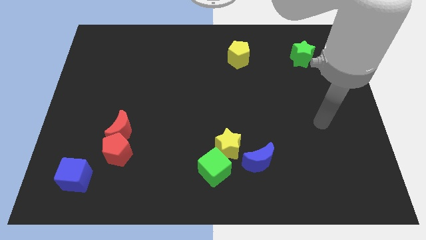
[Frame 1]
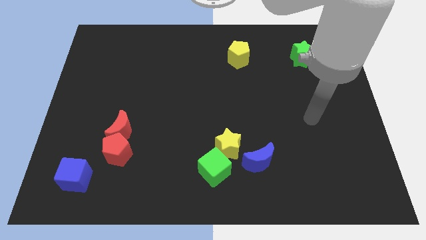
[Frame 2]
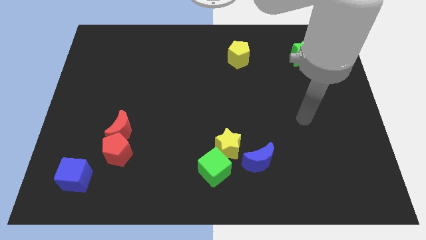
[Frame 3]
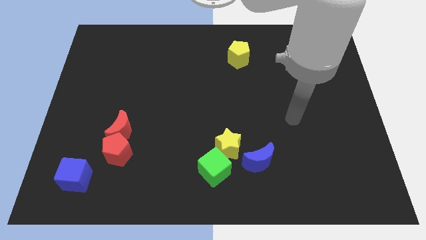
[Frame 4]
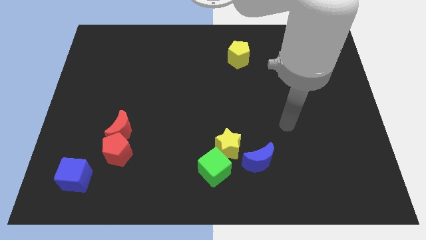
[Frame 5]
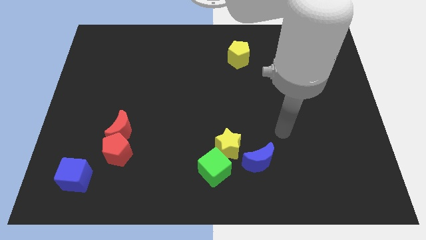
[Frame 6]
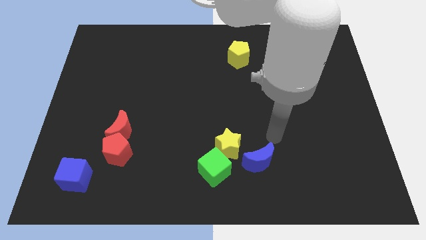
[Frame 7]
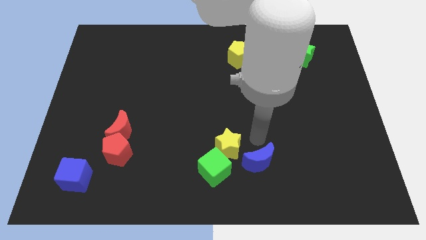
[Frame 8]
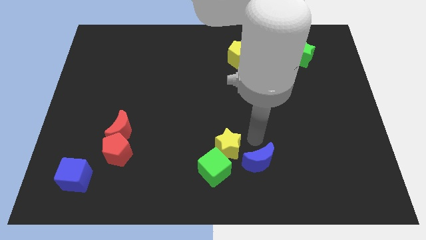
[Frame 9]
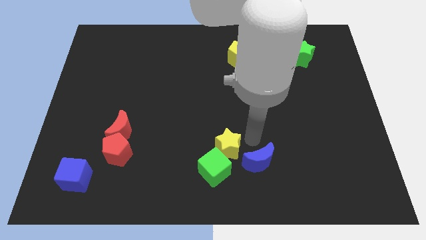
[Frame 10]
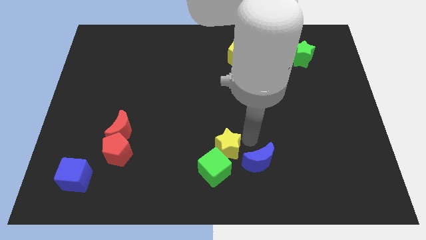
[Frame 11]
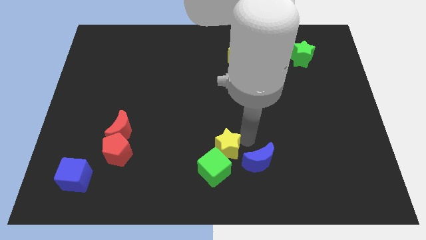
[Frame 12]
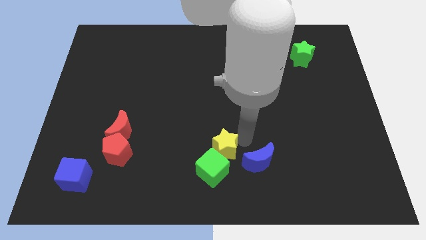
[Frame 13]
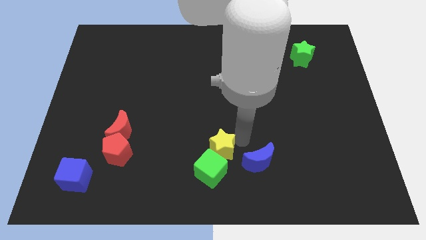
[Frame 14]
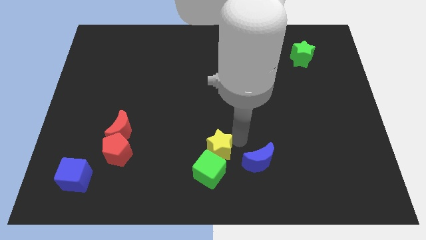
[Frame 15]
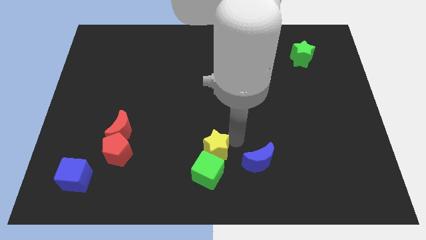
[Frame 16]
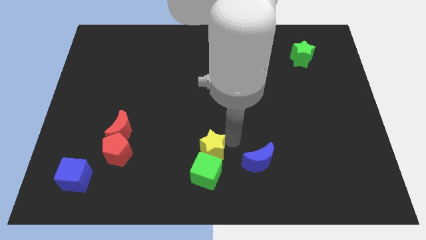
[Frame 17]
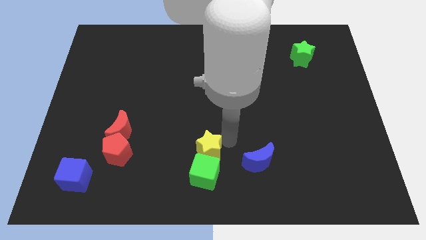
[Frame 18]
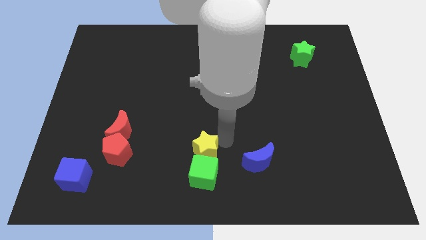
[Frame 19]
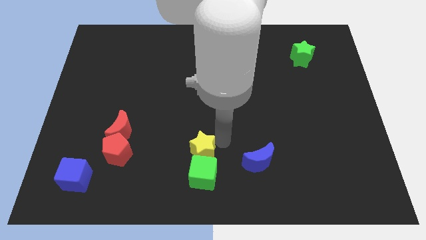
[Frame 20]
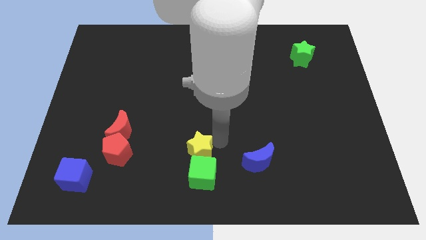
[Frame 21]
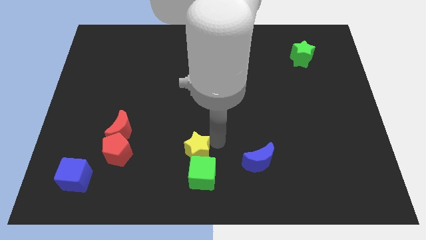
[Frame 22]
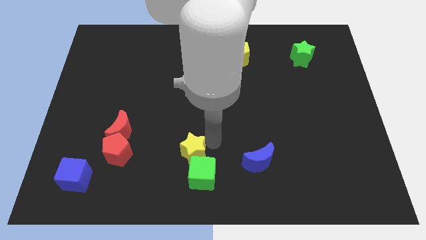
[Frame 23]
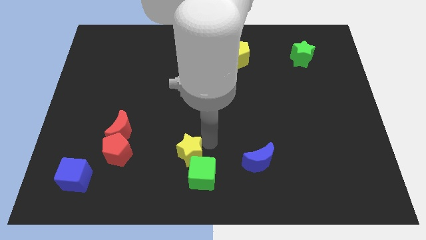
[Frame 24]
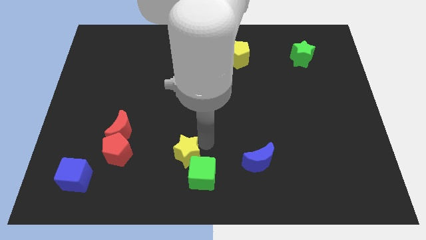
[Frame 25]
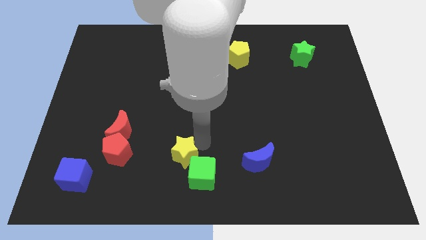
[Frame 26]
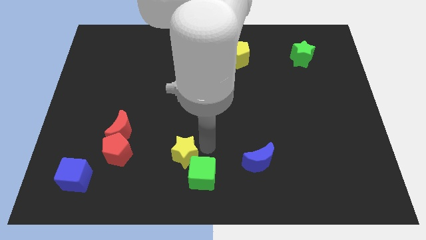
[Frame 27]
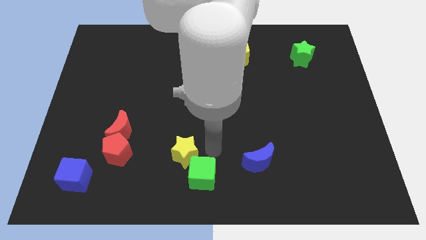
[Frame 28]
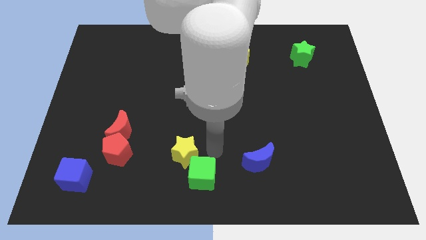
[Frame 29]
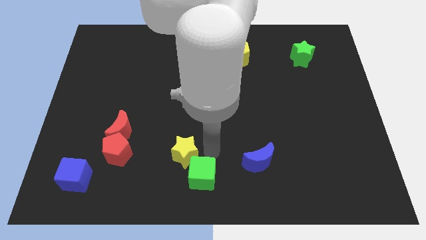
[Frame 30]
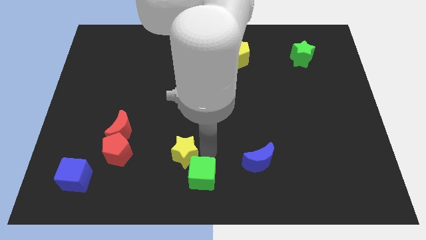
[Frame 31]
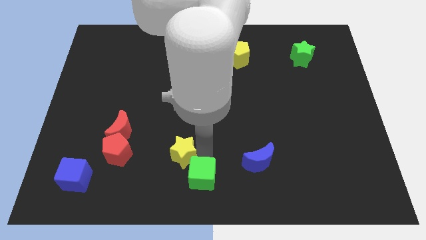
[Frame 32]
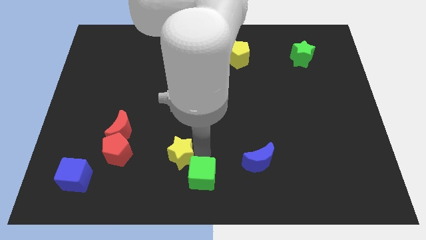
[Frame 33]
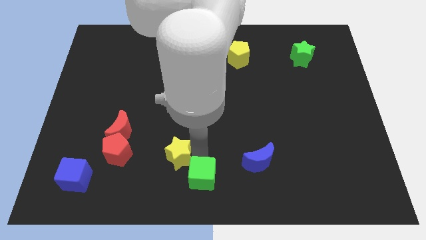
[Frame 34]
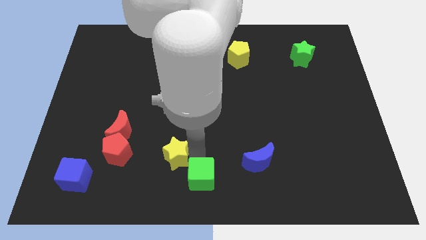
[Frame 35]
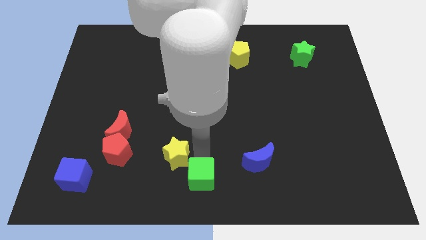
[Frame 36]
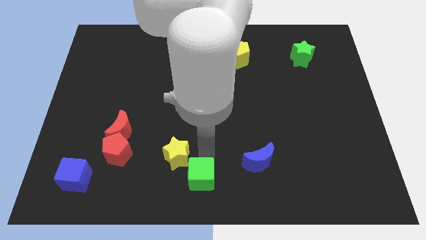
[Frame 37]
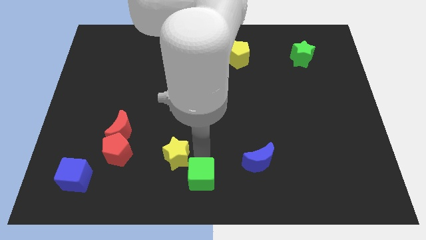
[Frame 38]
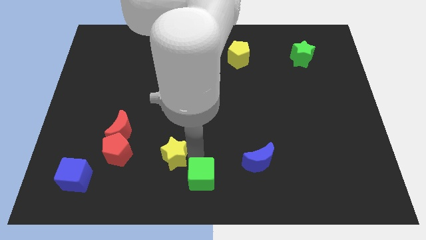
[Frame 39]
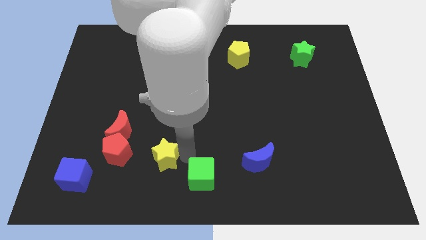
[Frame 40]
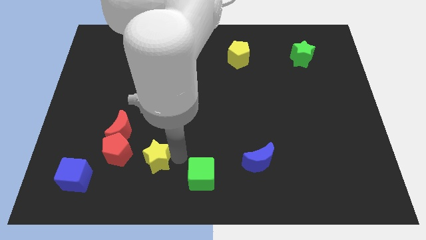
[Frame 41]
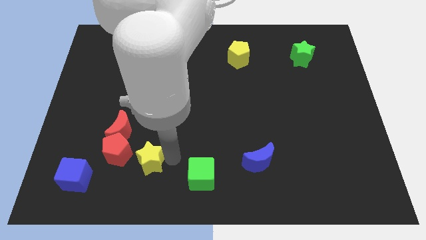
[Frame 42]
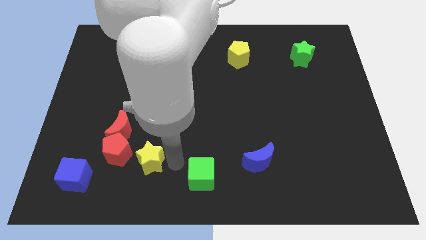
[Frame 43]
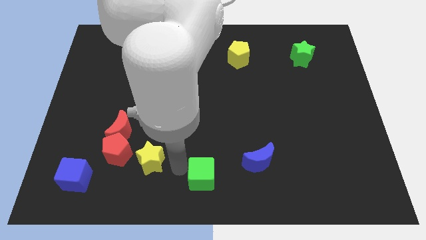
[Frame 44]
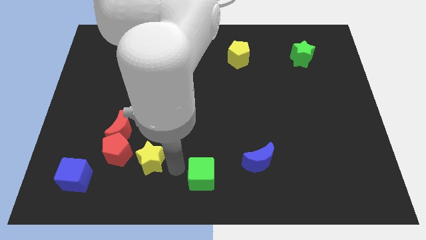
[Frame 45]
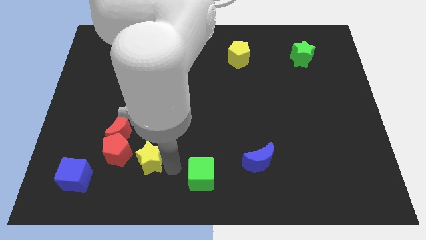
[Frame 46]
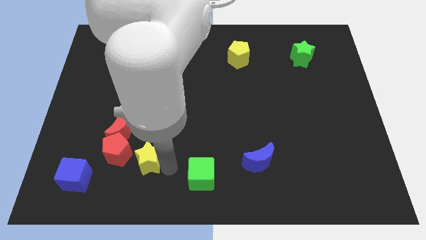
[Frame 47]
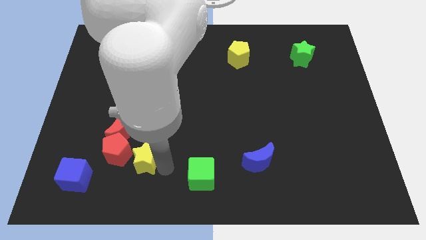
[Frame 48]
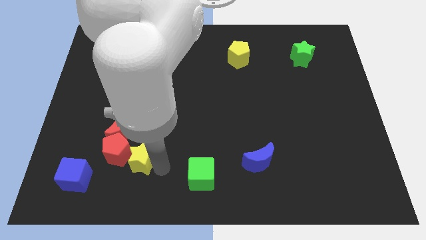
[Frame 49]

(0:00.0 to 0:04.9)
push the yellow star close to the red pentagon

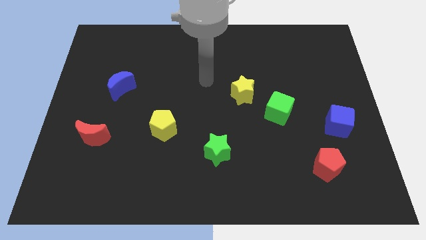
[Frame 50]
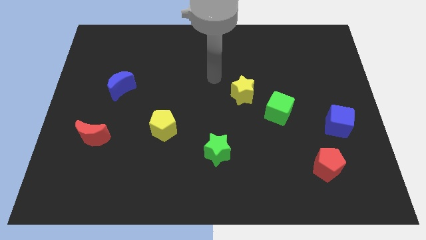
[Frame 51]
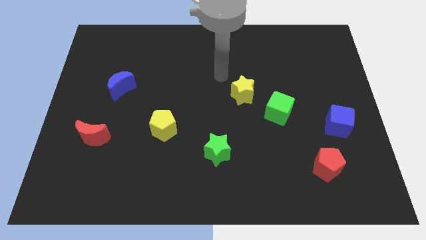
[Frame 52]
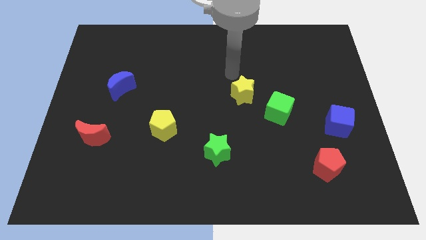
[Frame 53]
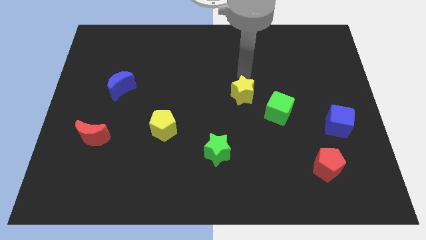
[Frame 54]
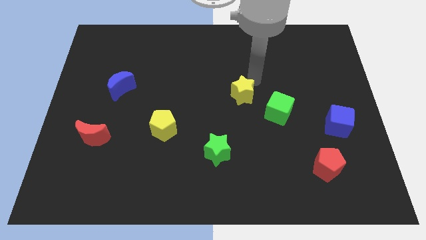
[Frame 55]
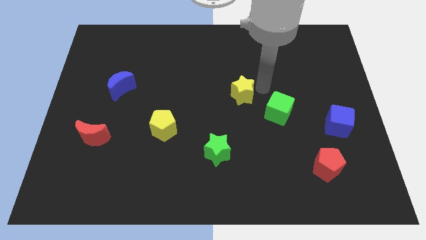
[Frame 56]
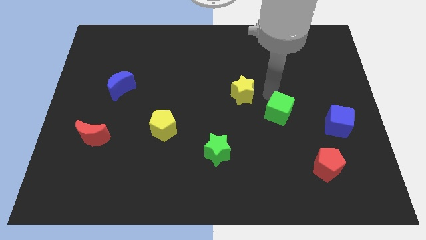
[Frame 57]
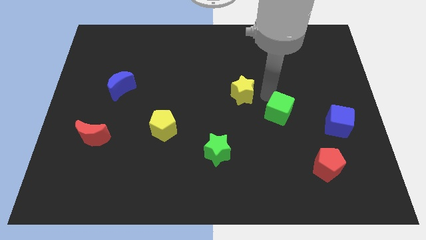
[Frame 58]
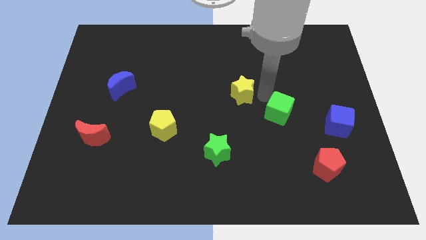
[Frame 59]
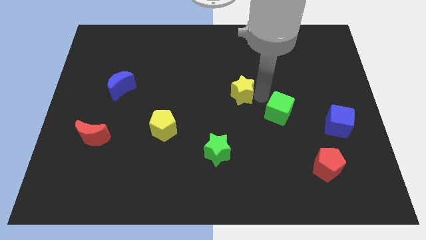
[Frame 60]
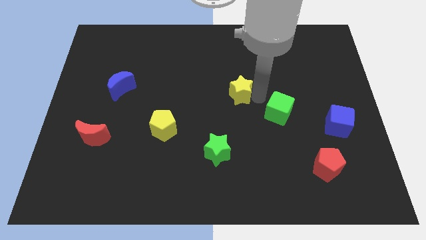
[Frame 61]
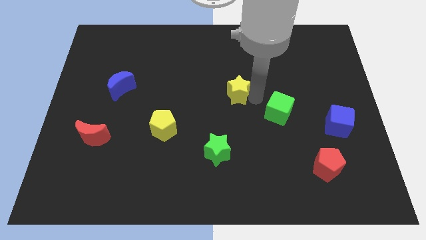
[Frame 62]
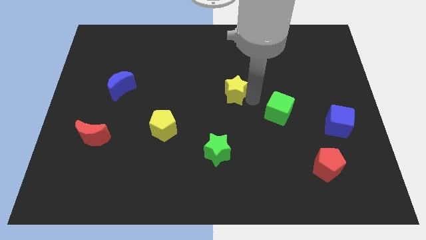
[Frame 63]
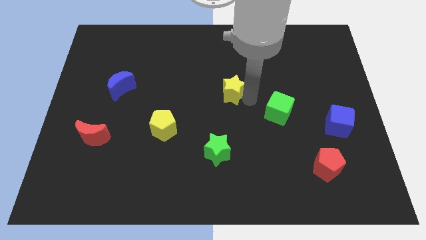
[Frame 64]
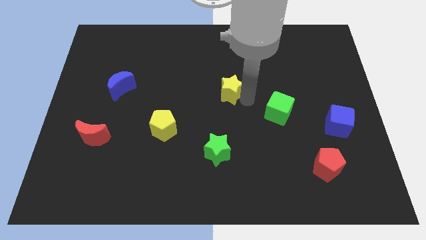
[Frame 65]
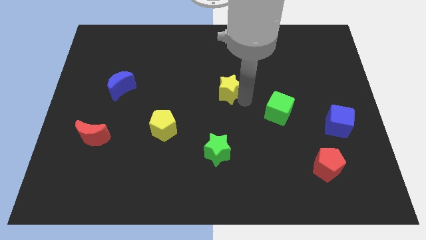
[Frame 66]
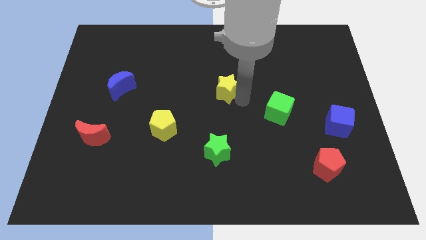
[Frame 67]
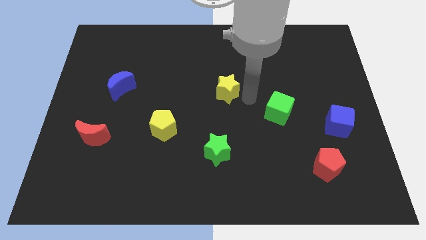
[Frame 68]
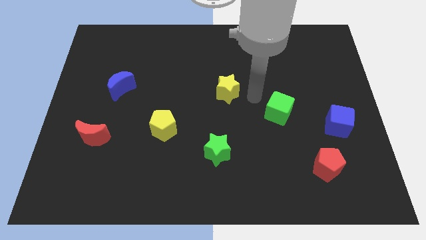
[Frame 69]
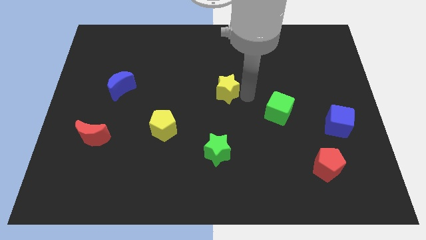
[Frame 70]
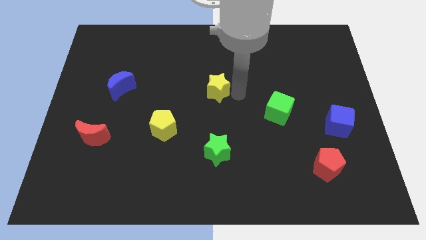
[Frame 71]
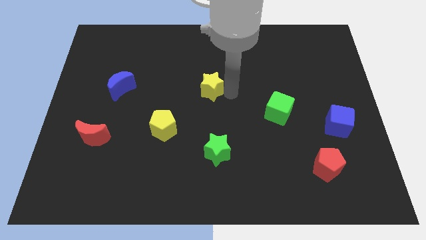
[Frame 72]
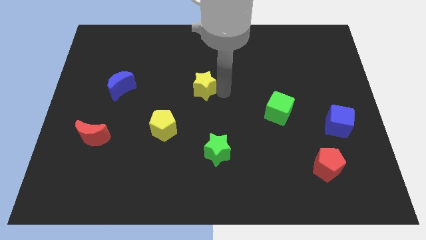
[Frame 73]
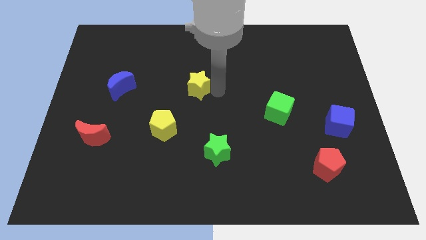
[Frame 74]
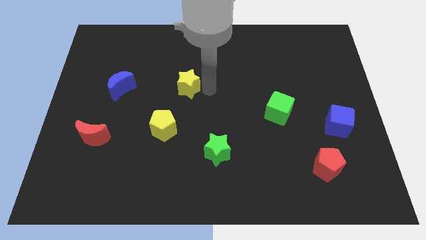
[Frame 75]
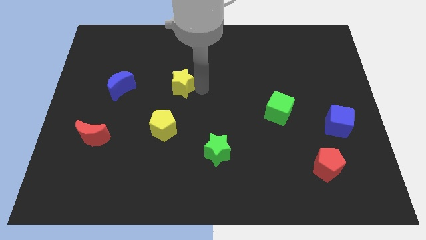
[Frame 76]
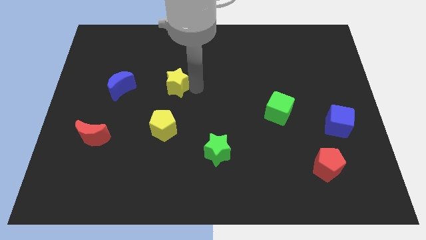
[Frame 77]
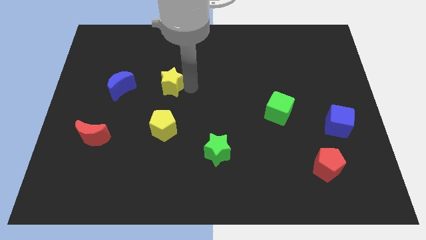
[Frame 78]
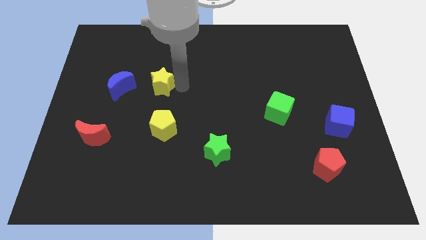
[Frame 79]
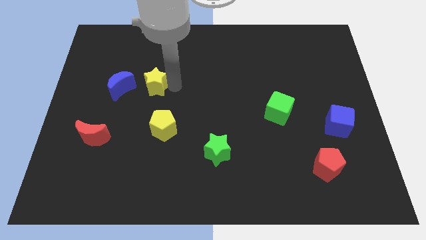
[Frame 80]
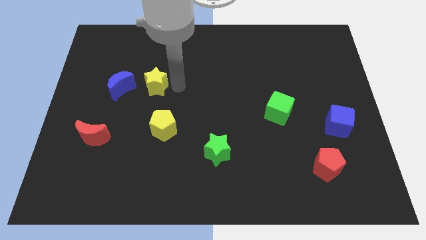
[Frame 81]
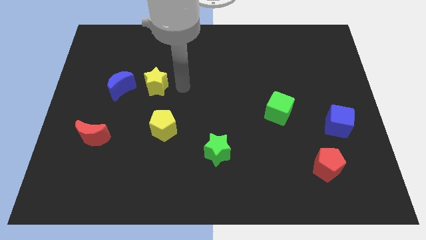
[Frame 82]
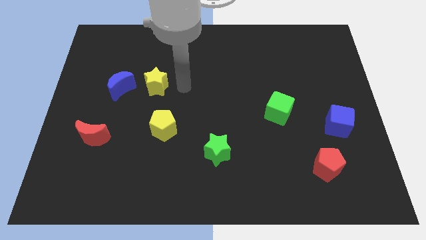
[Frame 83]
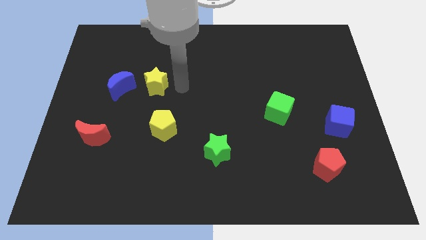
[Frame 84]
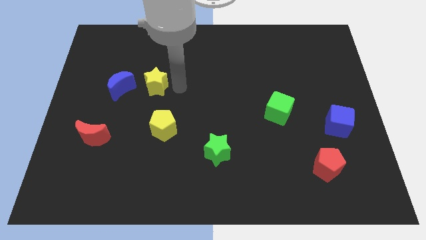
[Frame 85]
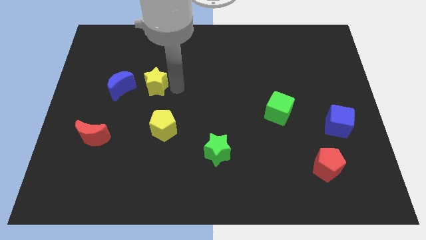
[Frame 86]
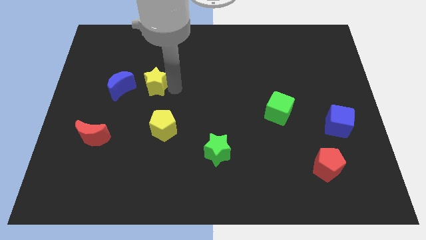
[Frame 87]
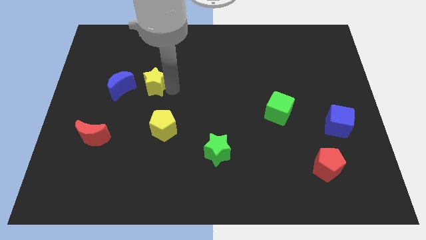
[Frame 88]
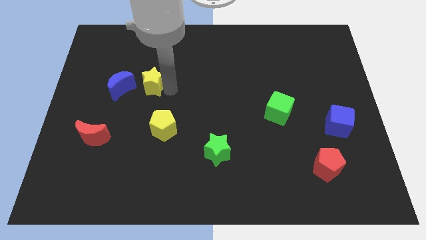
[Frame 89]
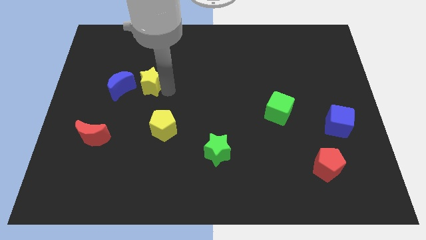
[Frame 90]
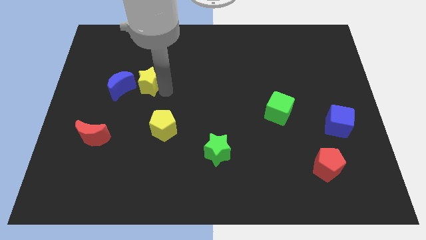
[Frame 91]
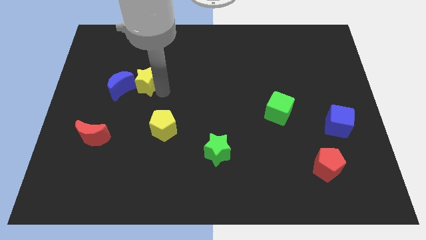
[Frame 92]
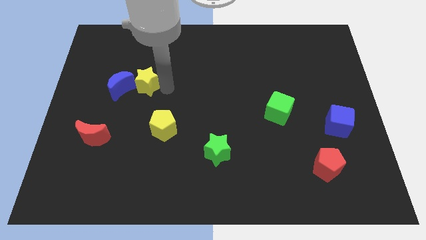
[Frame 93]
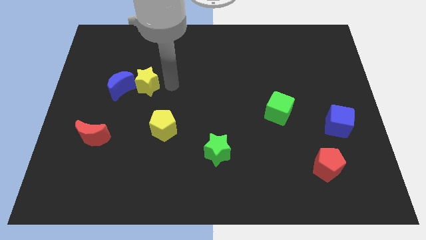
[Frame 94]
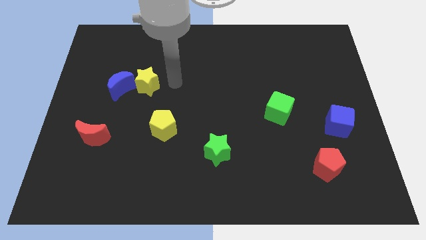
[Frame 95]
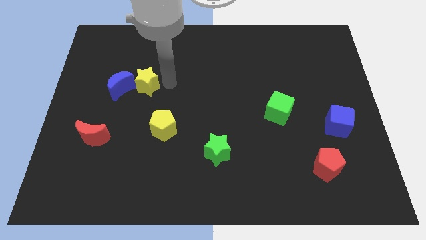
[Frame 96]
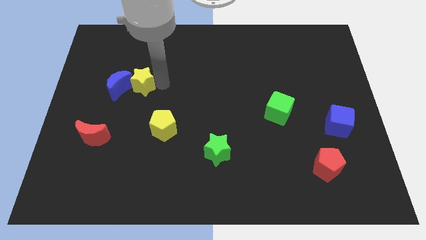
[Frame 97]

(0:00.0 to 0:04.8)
push the yellow star to the blue moon
